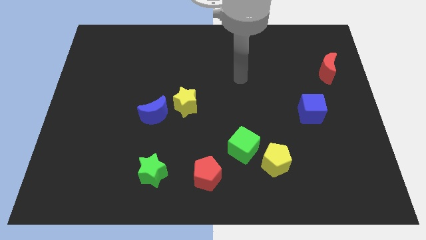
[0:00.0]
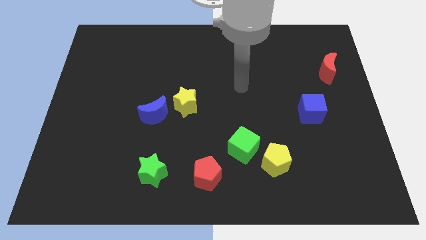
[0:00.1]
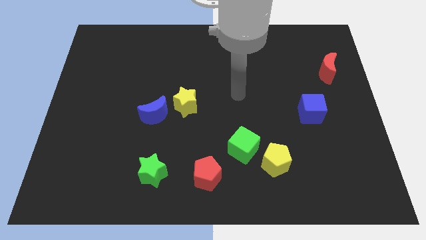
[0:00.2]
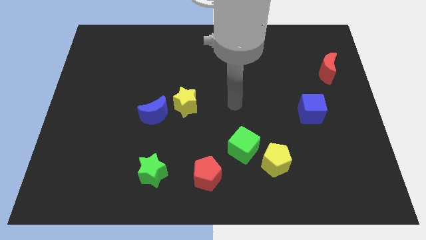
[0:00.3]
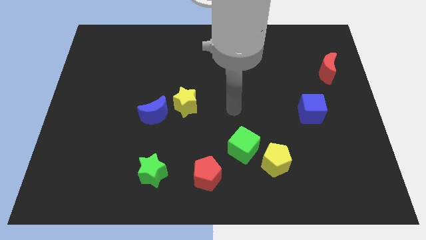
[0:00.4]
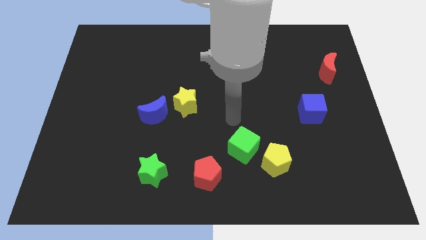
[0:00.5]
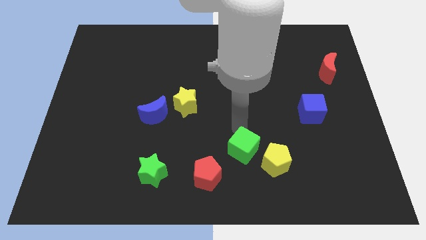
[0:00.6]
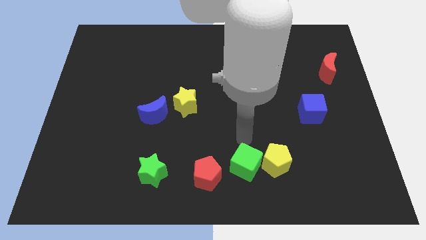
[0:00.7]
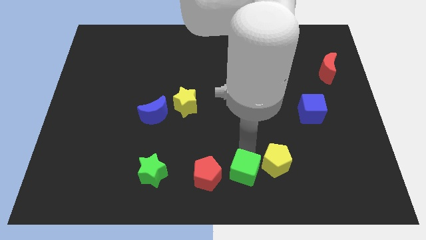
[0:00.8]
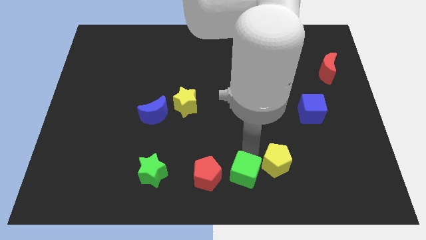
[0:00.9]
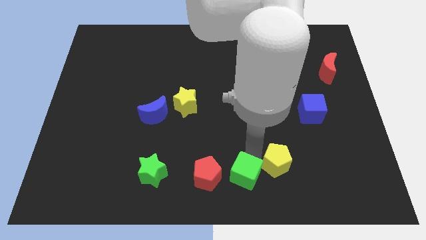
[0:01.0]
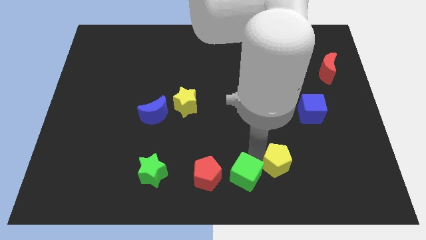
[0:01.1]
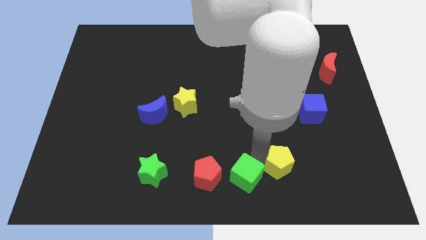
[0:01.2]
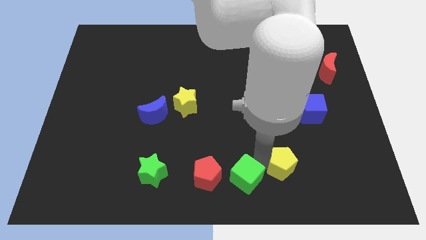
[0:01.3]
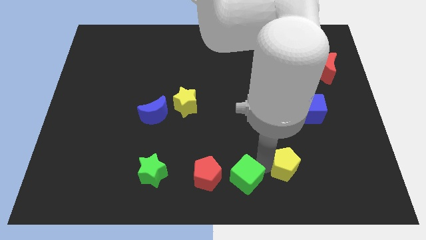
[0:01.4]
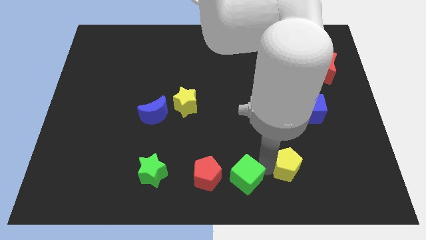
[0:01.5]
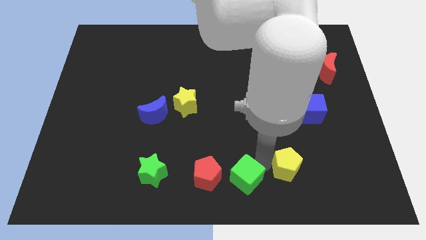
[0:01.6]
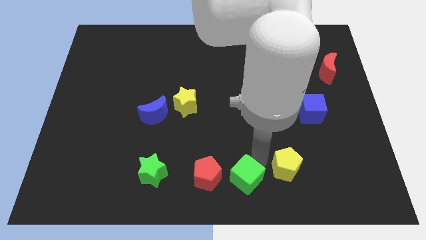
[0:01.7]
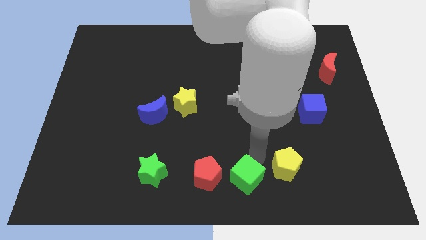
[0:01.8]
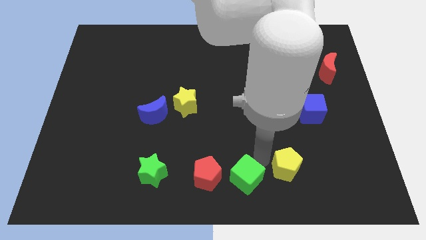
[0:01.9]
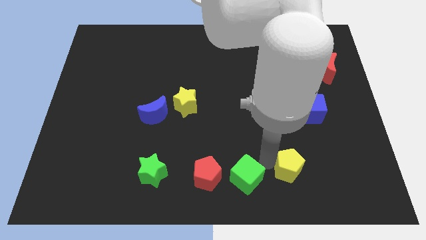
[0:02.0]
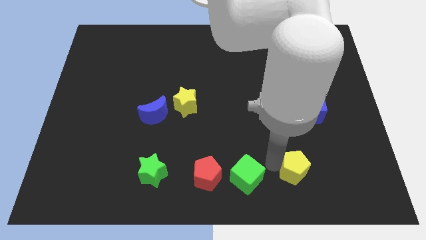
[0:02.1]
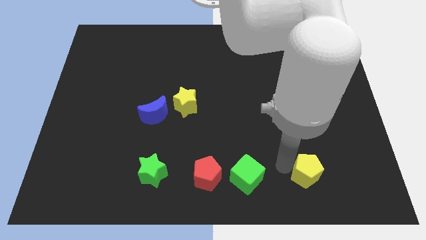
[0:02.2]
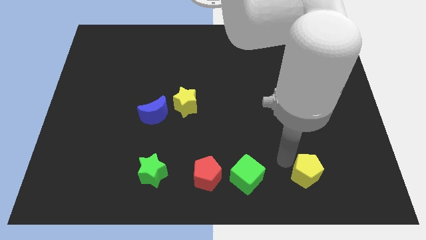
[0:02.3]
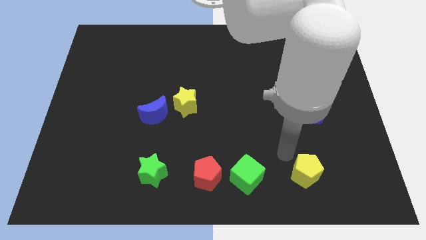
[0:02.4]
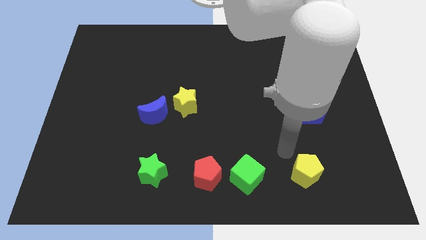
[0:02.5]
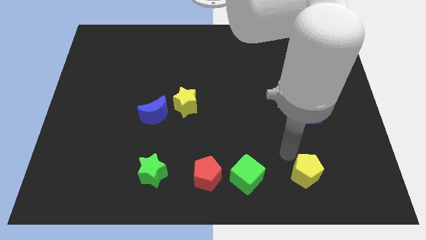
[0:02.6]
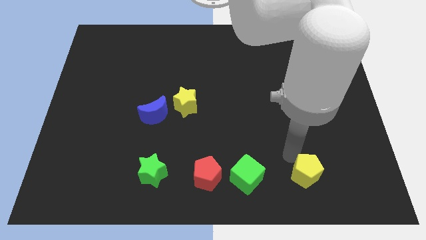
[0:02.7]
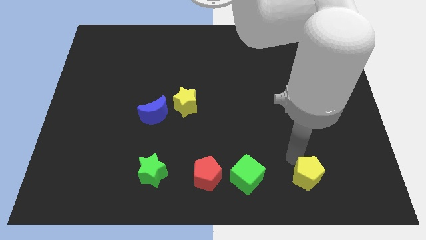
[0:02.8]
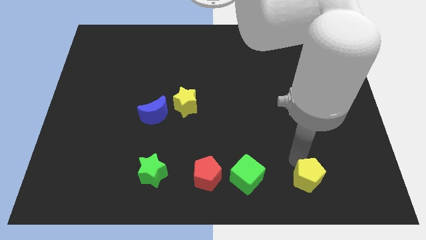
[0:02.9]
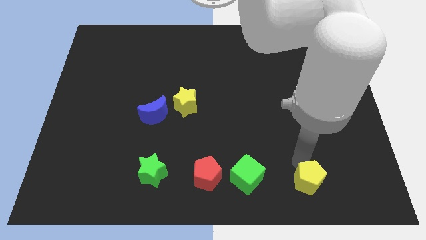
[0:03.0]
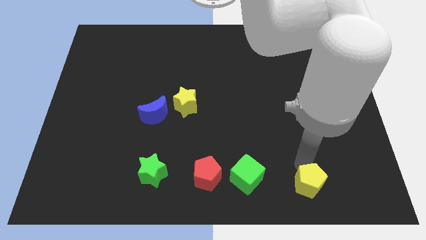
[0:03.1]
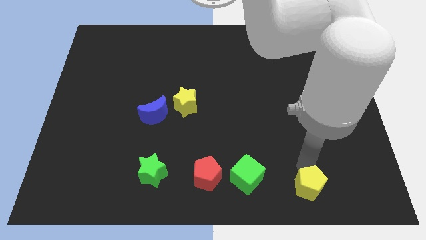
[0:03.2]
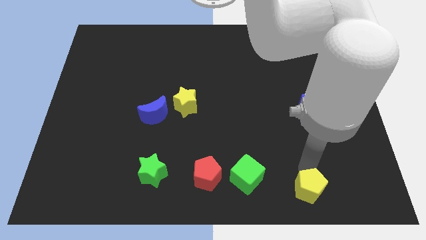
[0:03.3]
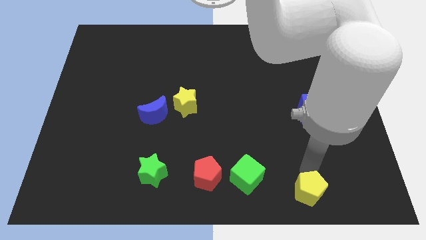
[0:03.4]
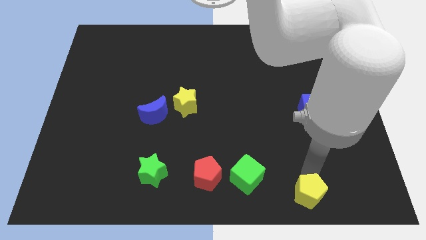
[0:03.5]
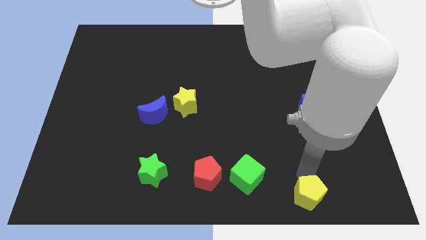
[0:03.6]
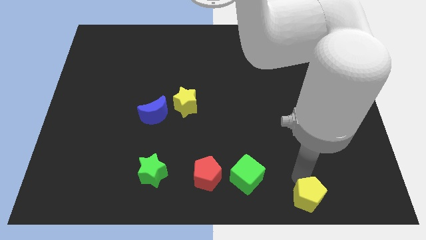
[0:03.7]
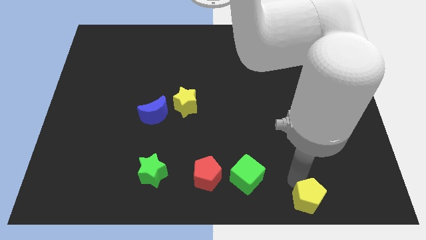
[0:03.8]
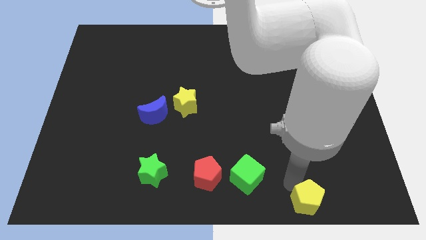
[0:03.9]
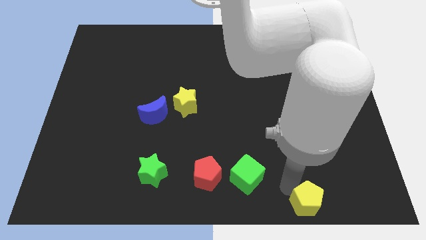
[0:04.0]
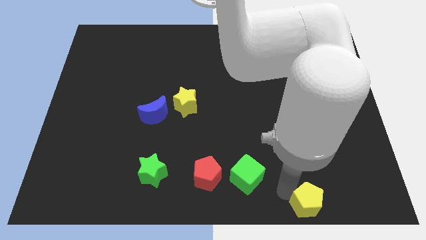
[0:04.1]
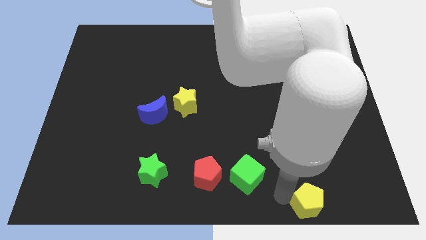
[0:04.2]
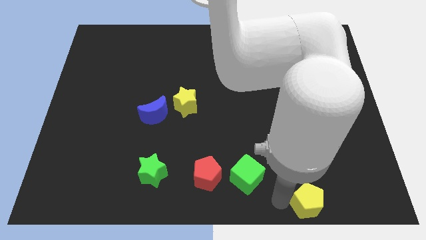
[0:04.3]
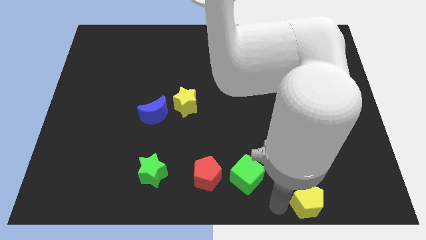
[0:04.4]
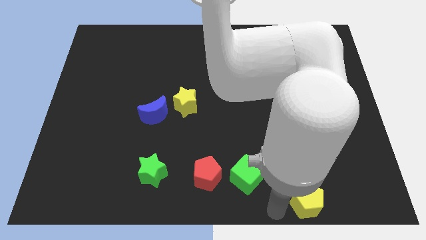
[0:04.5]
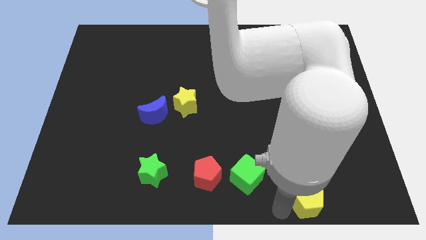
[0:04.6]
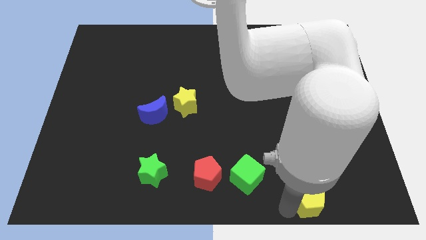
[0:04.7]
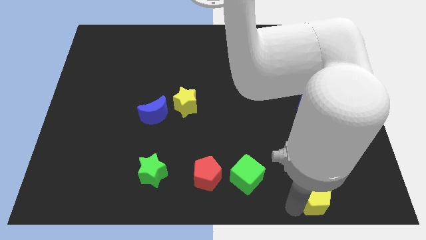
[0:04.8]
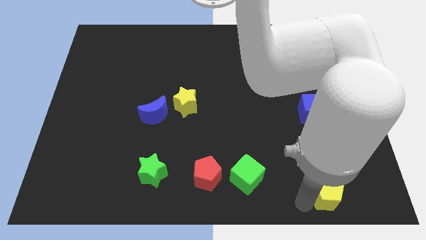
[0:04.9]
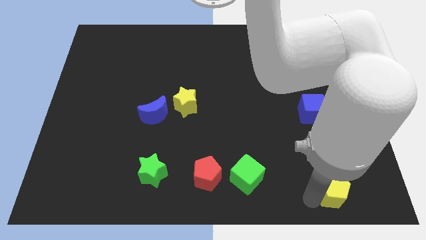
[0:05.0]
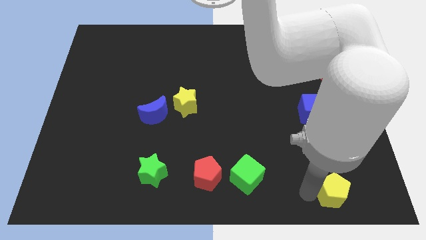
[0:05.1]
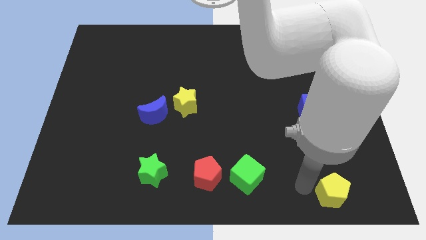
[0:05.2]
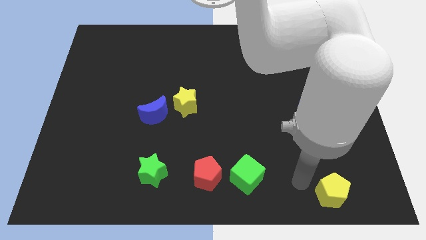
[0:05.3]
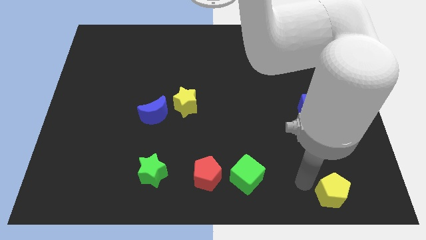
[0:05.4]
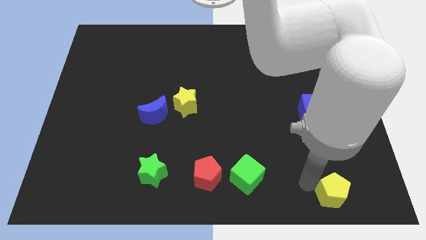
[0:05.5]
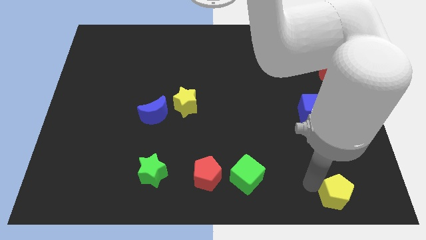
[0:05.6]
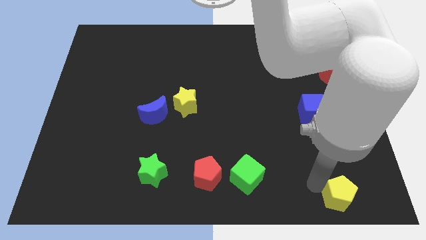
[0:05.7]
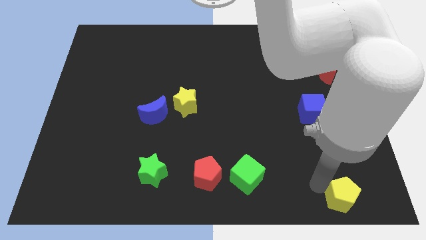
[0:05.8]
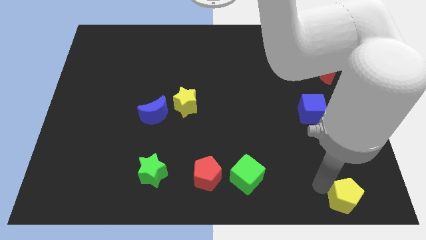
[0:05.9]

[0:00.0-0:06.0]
slide the yellow pentagon to the lower right corner
